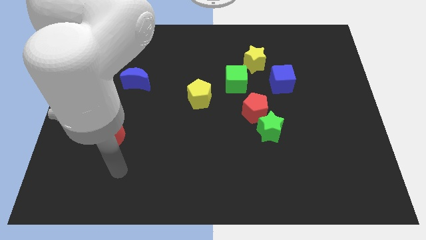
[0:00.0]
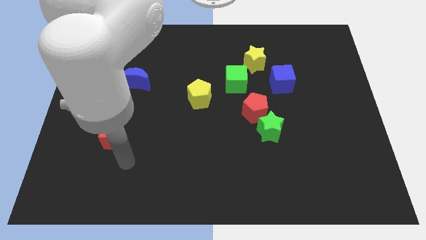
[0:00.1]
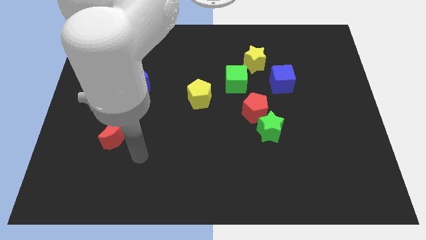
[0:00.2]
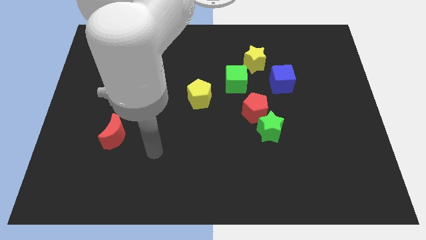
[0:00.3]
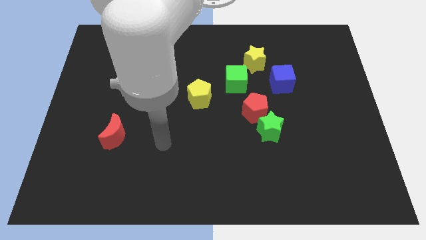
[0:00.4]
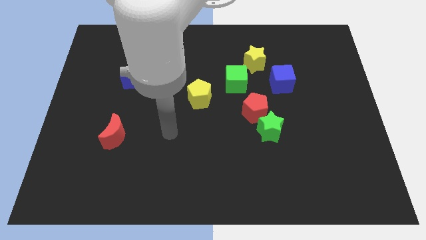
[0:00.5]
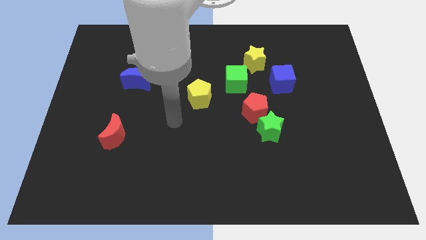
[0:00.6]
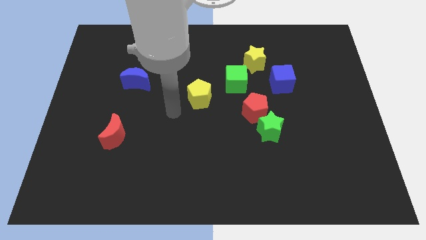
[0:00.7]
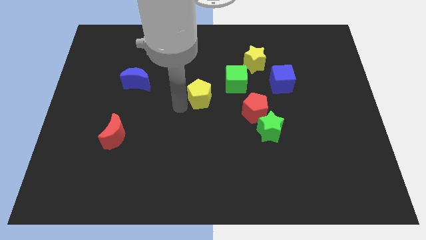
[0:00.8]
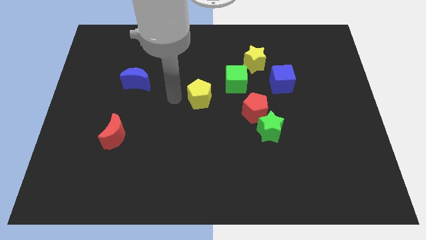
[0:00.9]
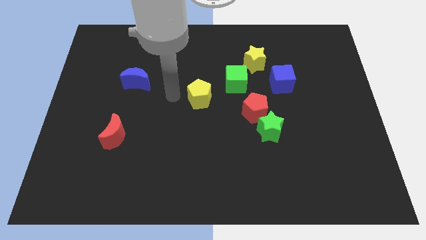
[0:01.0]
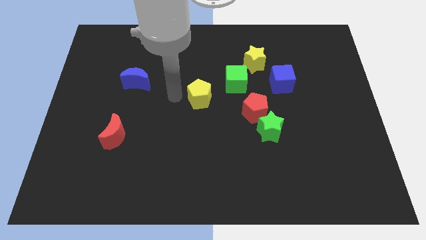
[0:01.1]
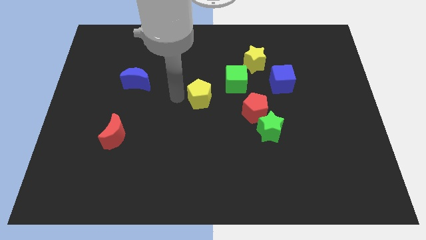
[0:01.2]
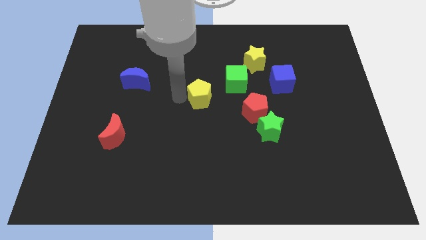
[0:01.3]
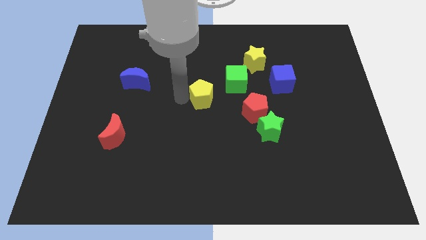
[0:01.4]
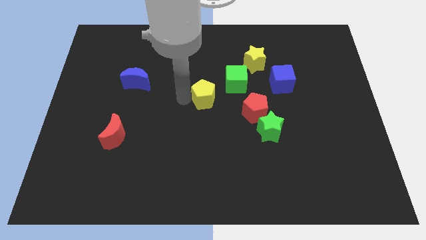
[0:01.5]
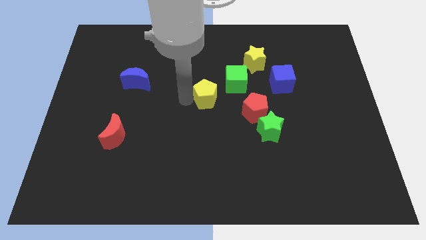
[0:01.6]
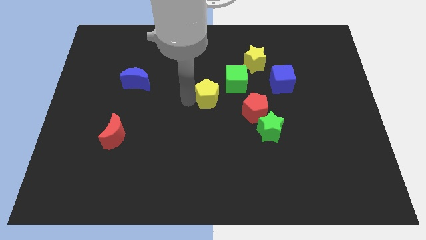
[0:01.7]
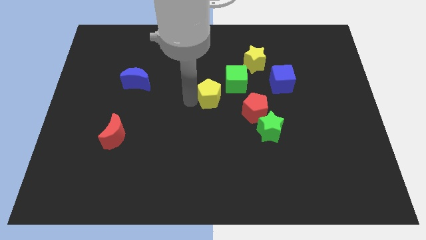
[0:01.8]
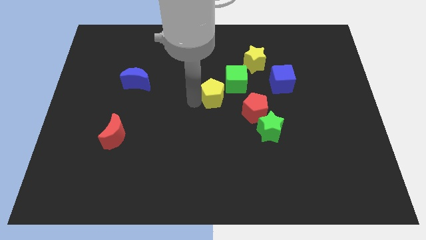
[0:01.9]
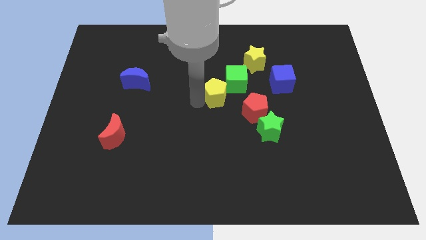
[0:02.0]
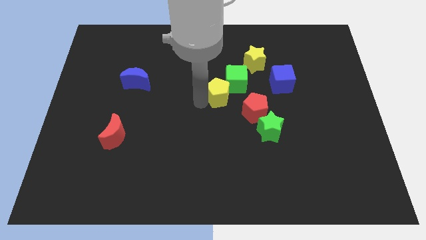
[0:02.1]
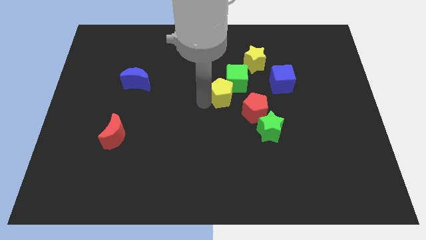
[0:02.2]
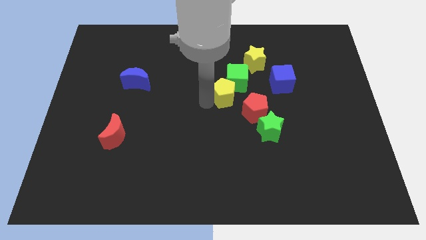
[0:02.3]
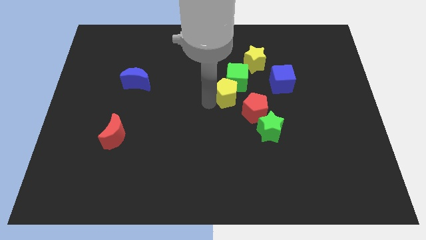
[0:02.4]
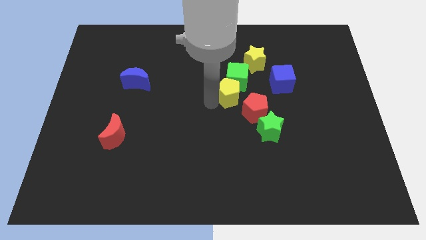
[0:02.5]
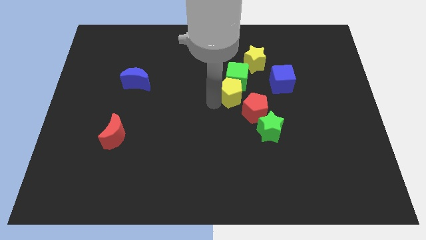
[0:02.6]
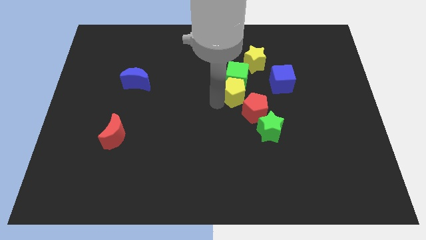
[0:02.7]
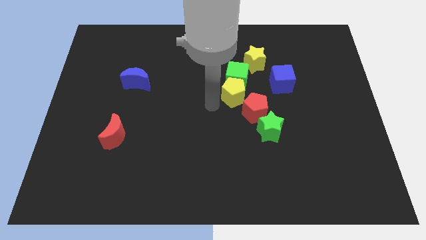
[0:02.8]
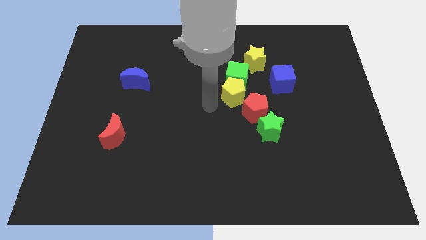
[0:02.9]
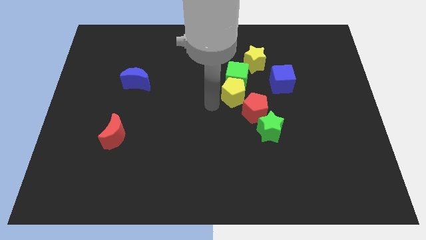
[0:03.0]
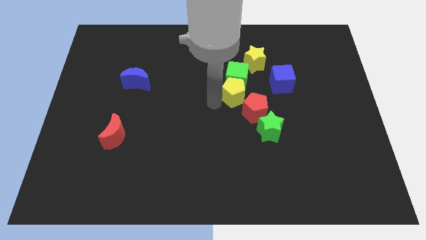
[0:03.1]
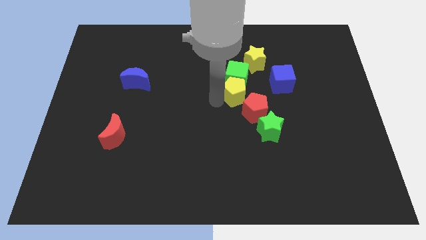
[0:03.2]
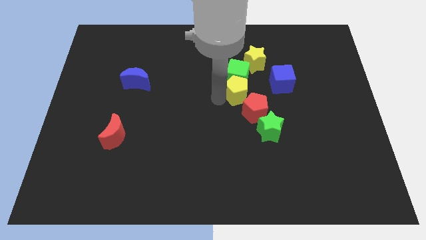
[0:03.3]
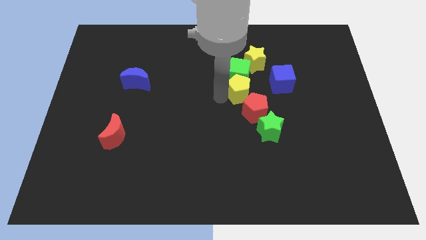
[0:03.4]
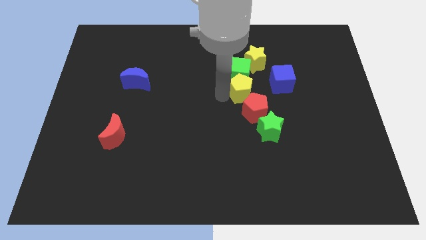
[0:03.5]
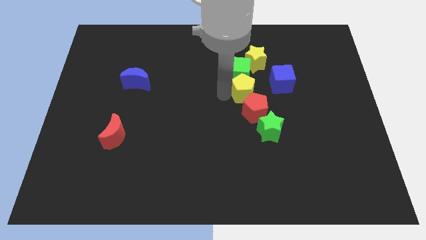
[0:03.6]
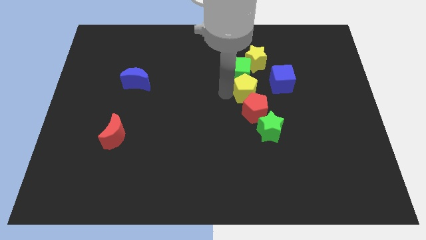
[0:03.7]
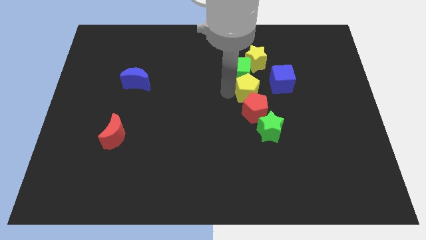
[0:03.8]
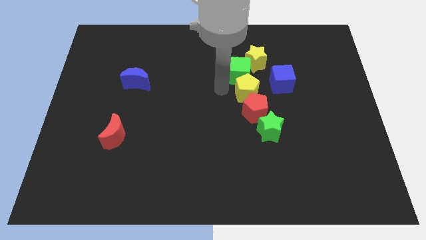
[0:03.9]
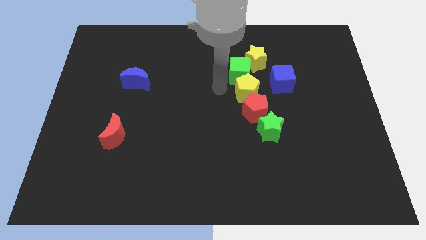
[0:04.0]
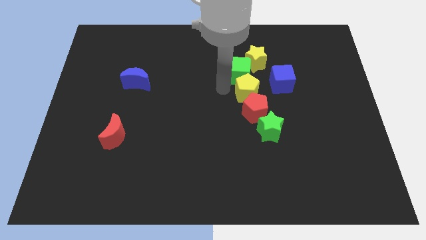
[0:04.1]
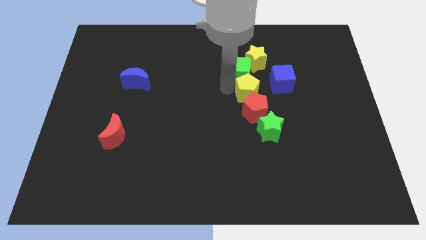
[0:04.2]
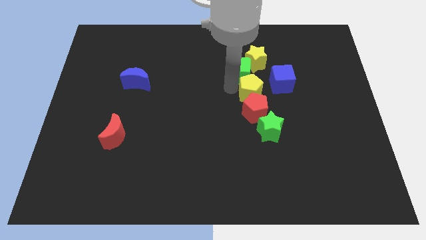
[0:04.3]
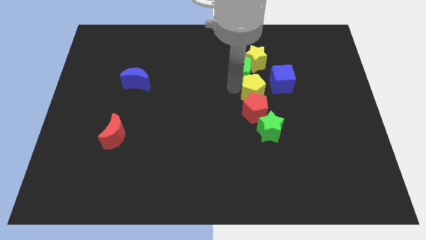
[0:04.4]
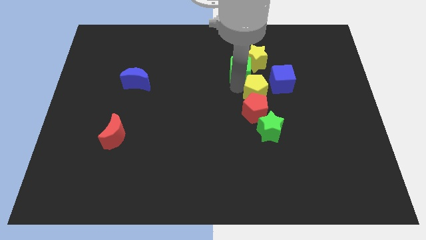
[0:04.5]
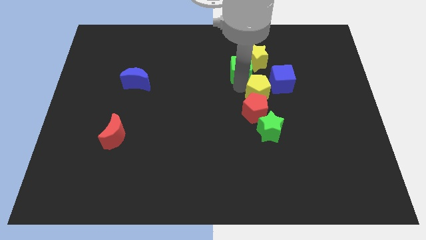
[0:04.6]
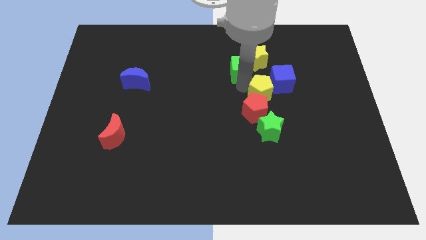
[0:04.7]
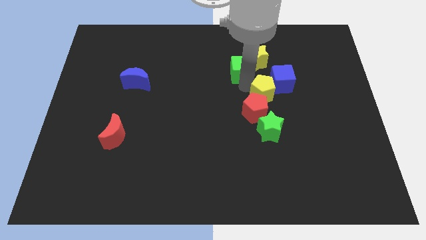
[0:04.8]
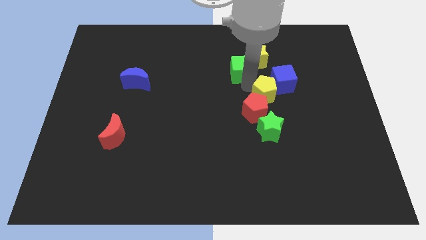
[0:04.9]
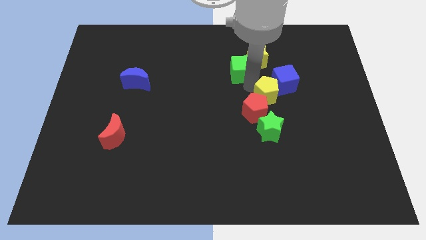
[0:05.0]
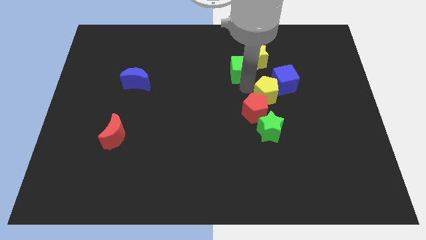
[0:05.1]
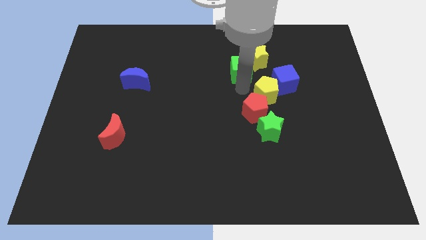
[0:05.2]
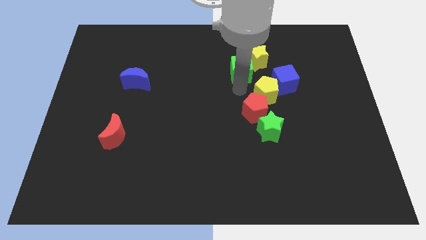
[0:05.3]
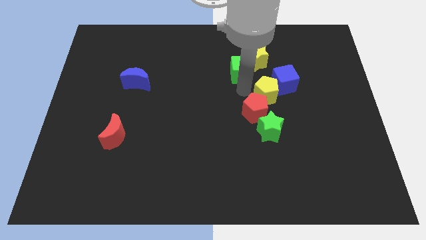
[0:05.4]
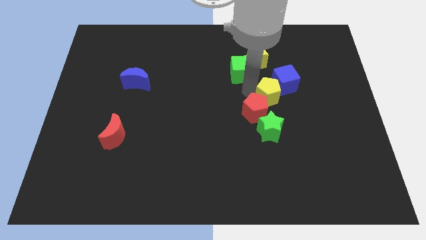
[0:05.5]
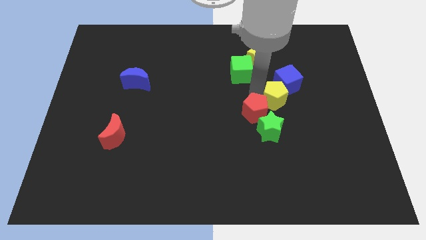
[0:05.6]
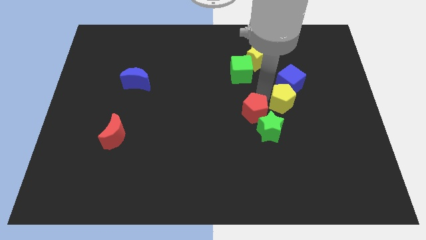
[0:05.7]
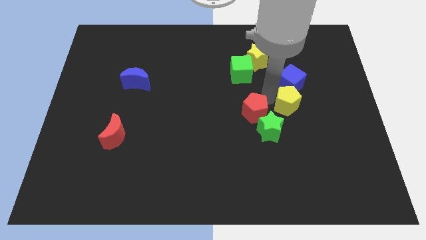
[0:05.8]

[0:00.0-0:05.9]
slide the yellow pentagon to the right

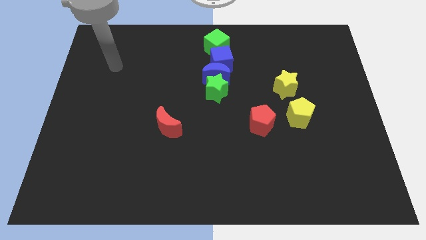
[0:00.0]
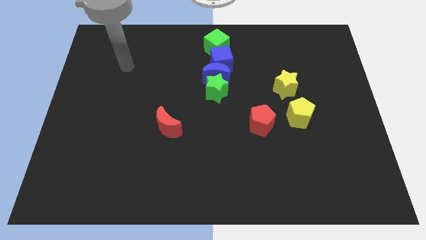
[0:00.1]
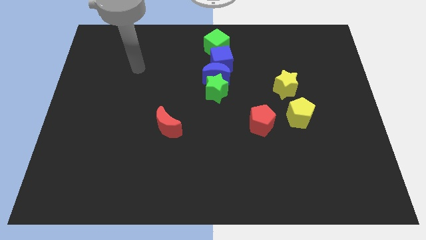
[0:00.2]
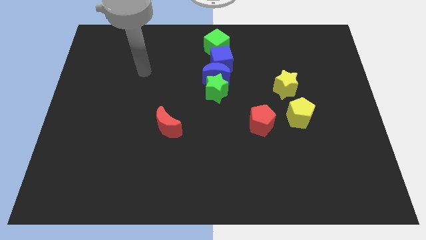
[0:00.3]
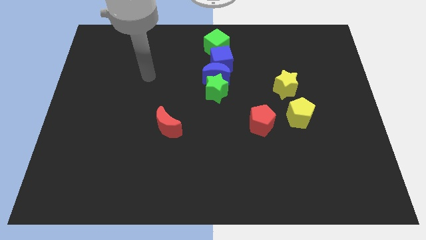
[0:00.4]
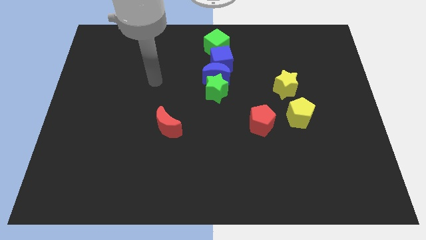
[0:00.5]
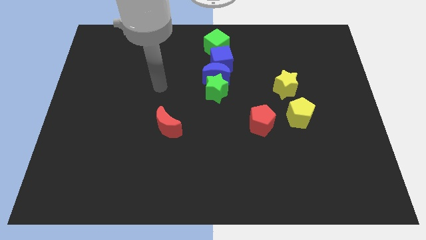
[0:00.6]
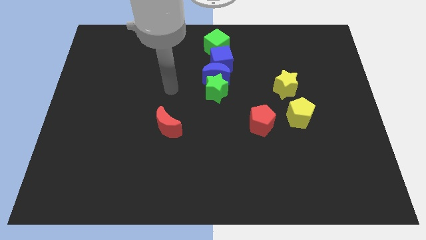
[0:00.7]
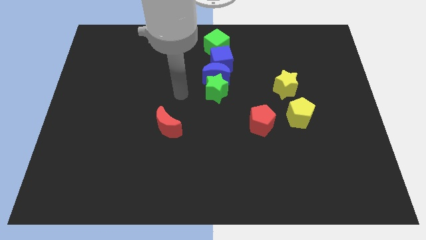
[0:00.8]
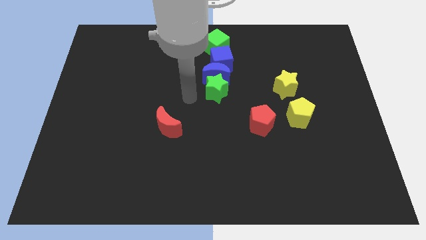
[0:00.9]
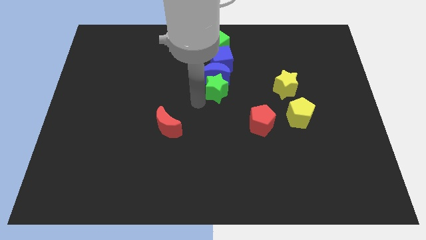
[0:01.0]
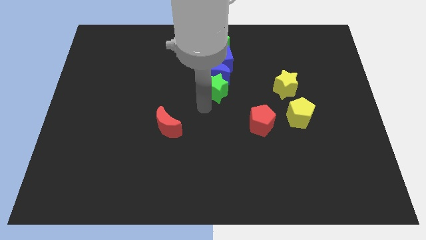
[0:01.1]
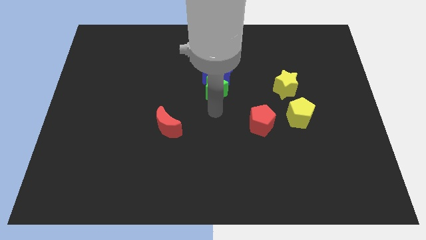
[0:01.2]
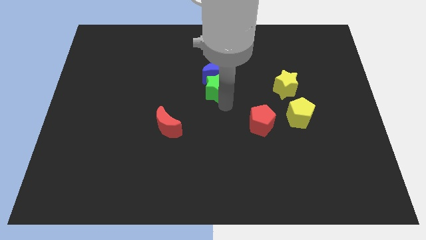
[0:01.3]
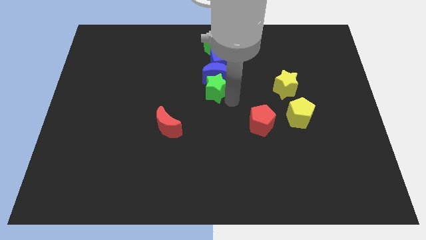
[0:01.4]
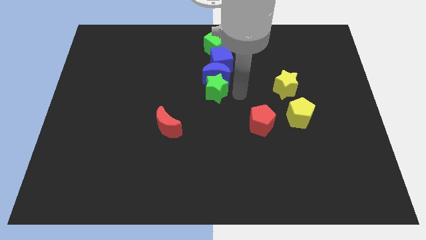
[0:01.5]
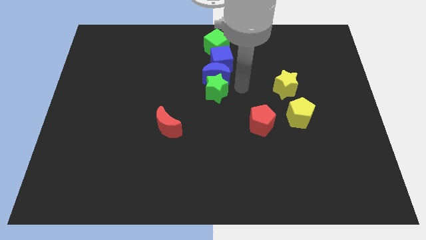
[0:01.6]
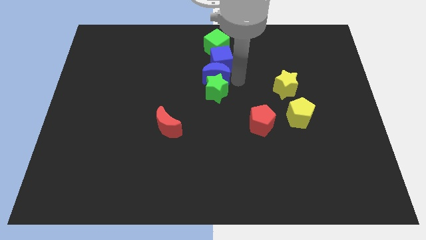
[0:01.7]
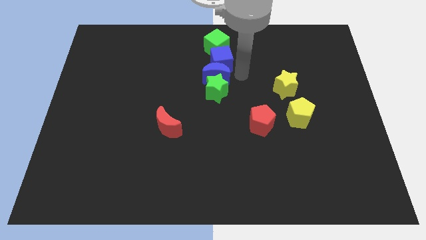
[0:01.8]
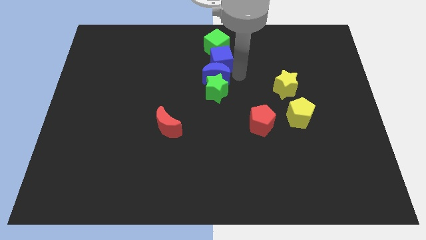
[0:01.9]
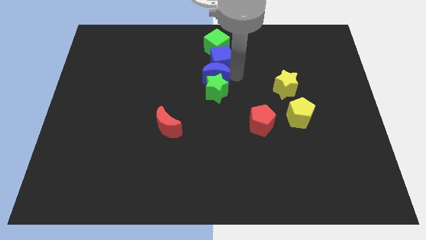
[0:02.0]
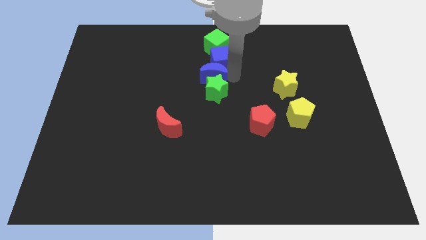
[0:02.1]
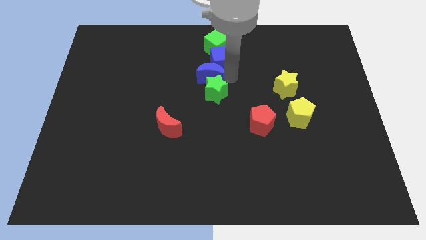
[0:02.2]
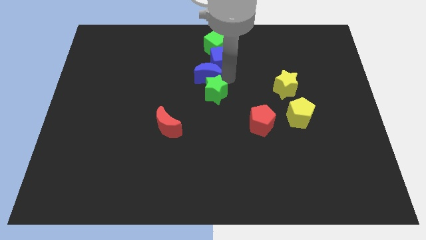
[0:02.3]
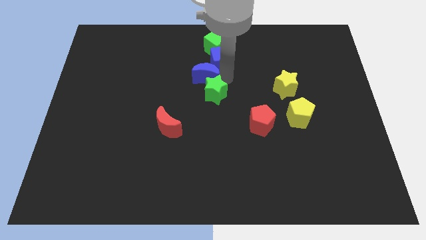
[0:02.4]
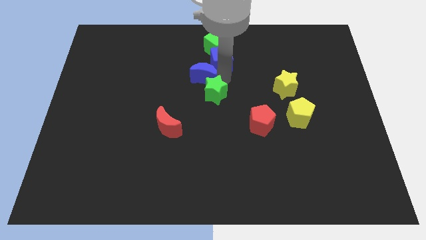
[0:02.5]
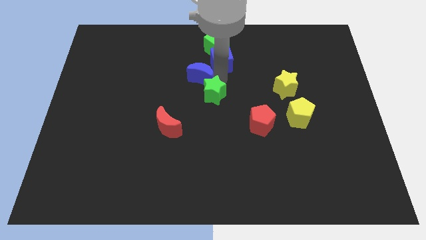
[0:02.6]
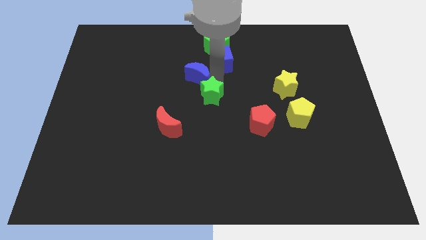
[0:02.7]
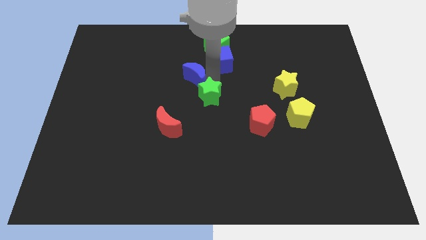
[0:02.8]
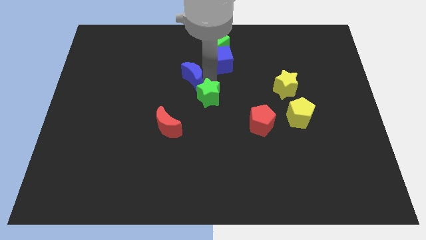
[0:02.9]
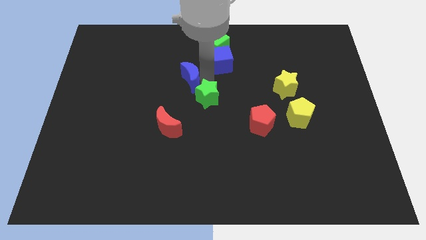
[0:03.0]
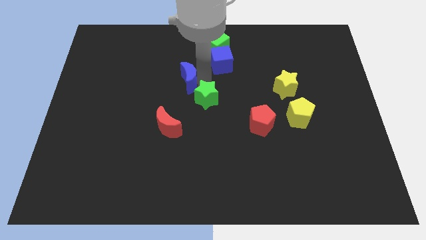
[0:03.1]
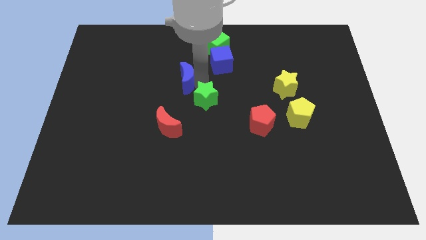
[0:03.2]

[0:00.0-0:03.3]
push the blue moon slightly left
